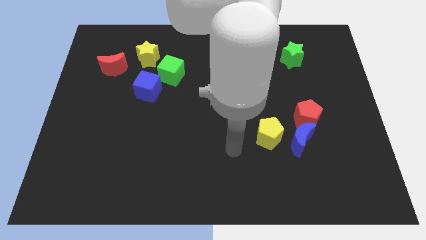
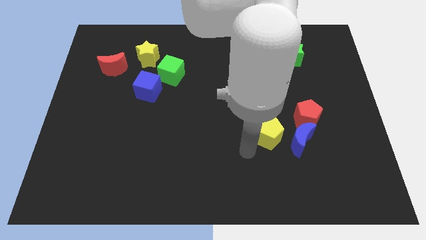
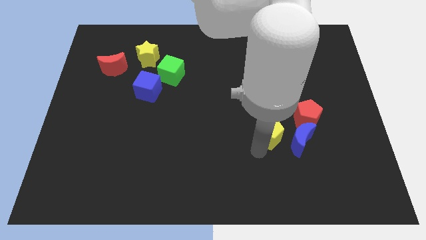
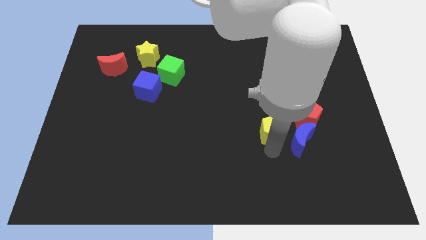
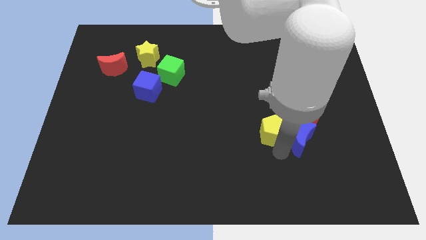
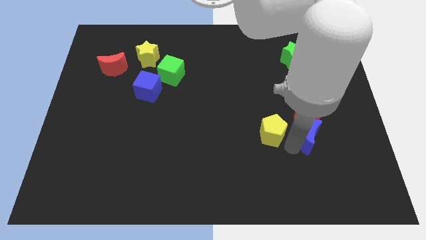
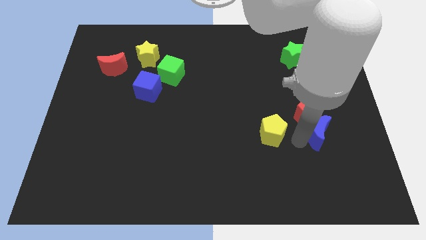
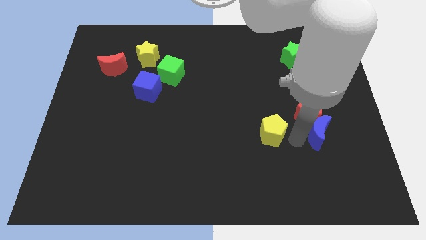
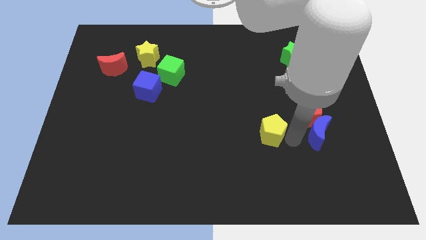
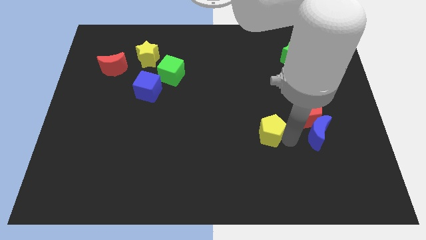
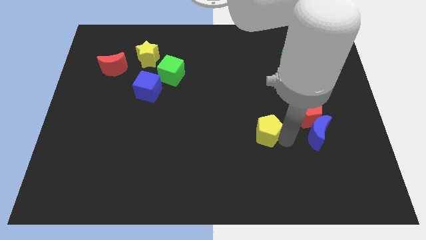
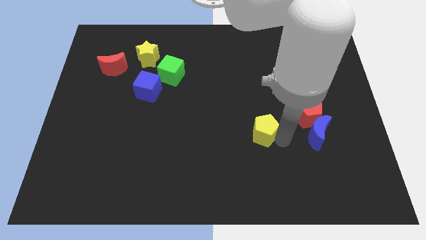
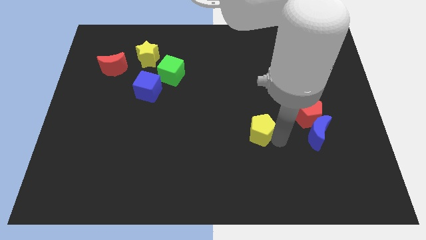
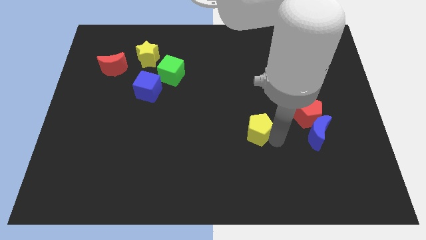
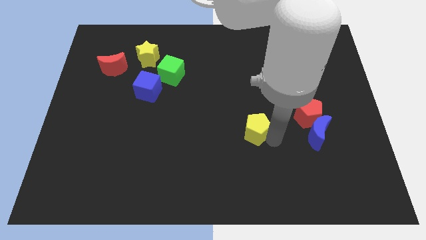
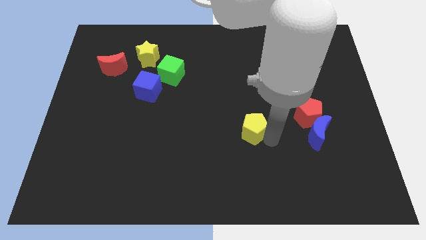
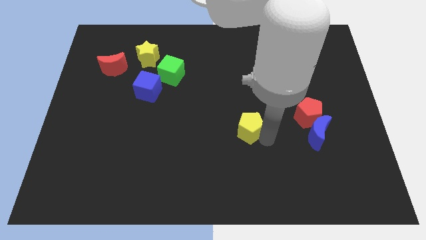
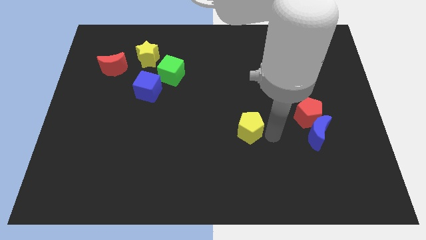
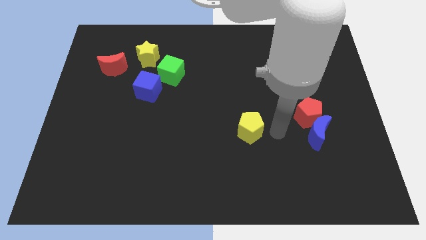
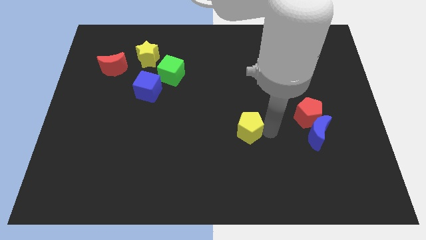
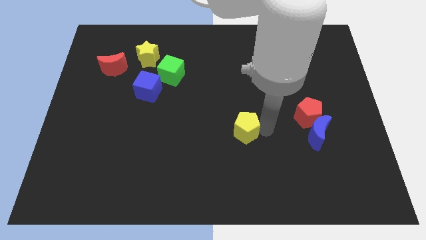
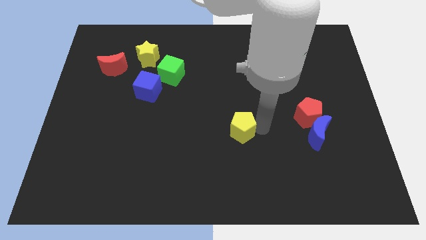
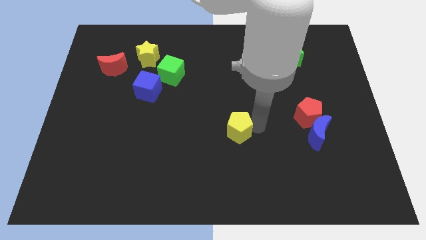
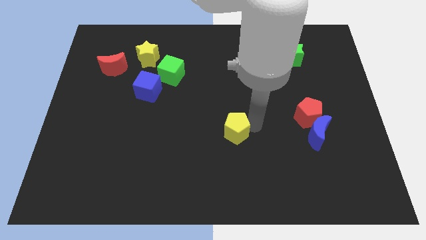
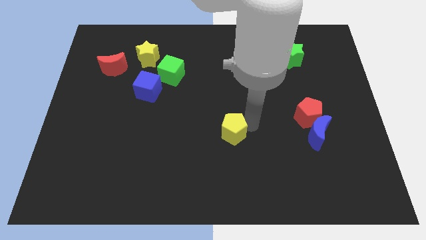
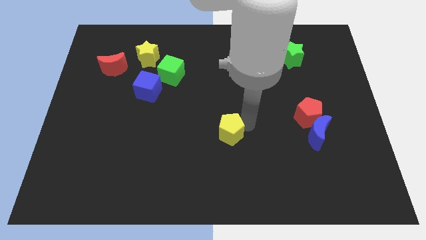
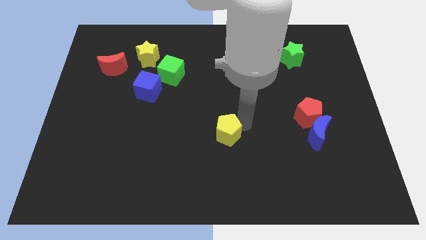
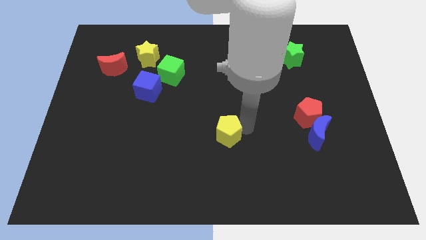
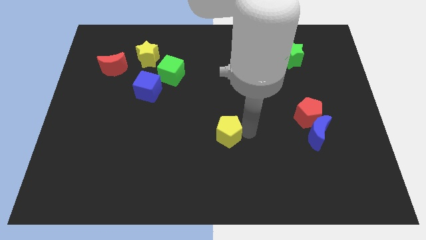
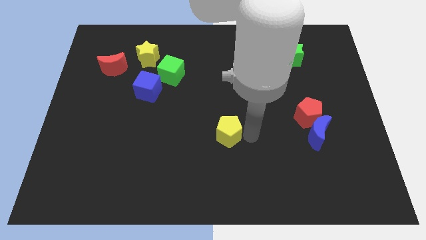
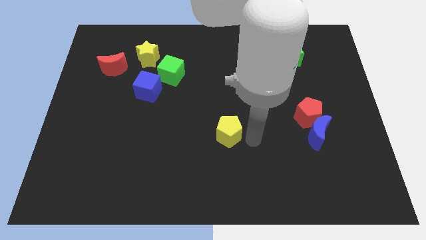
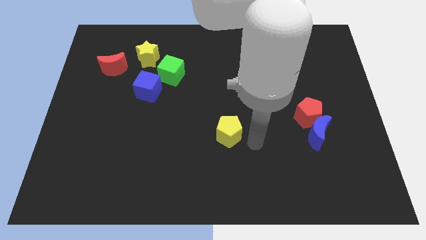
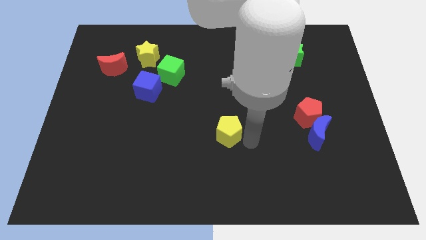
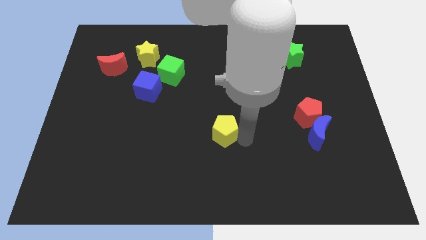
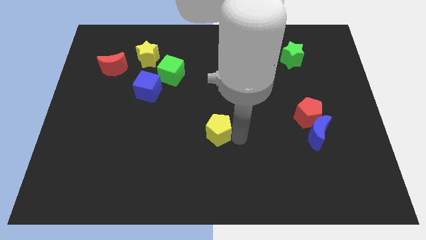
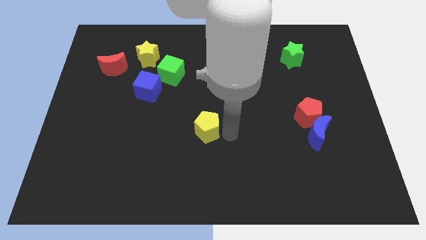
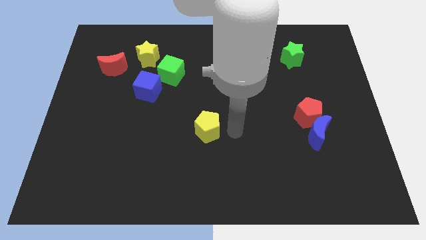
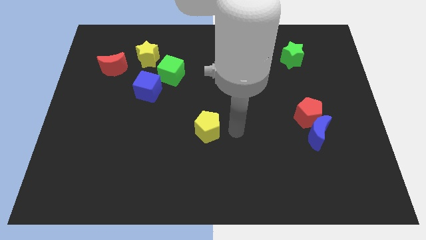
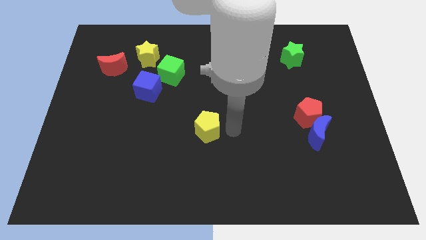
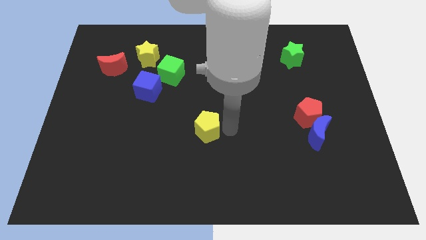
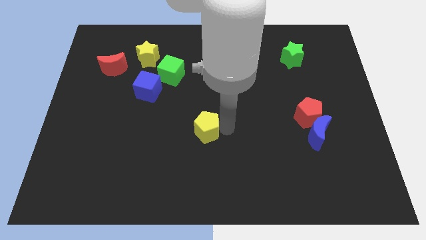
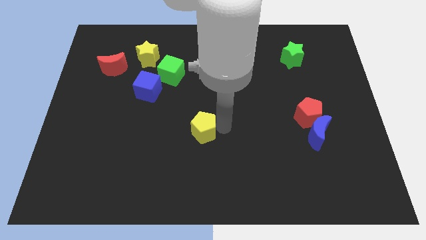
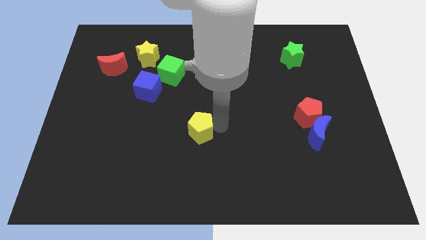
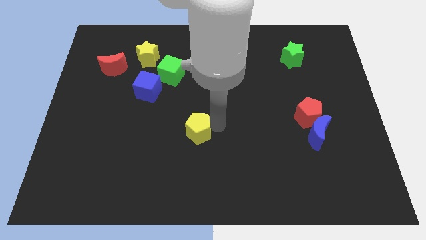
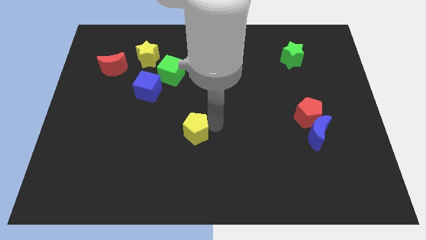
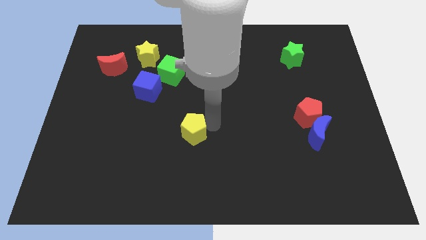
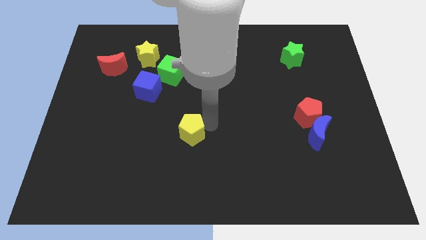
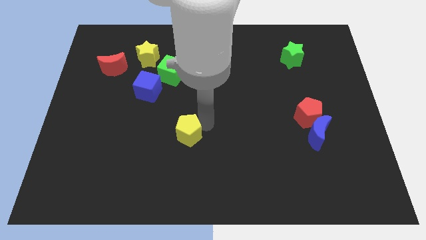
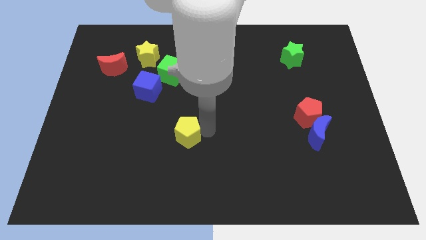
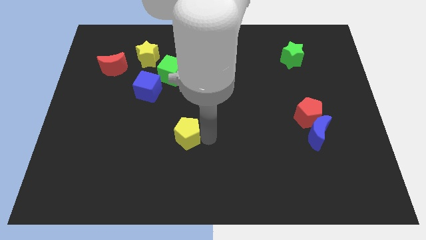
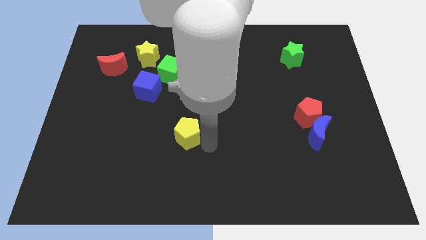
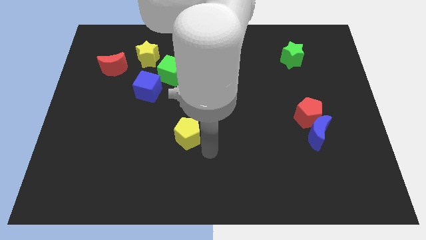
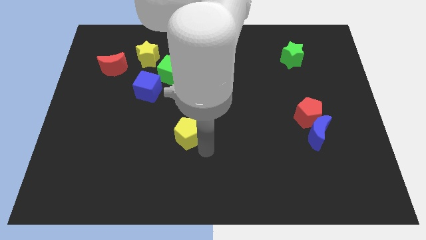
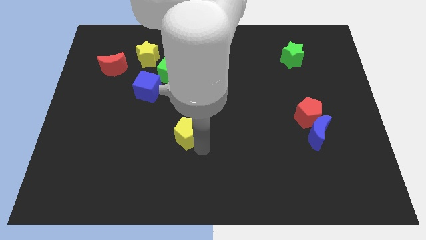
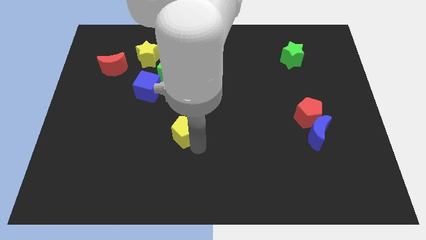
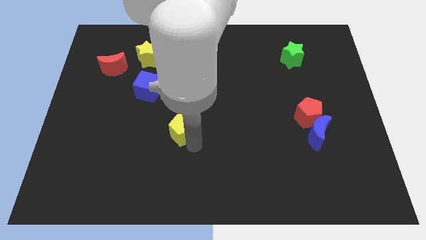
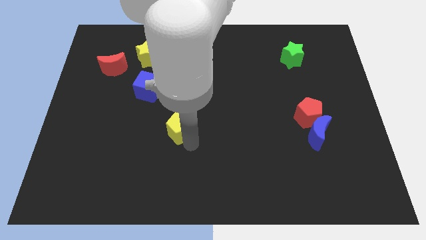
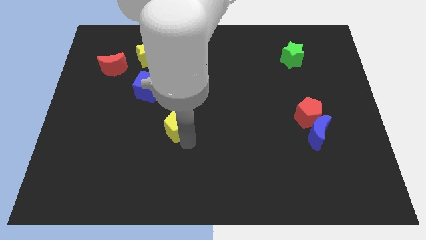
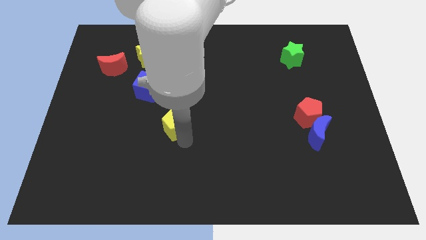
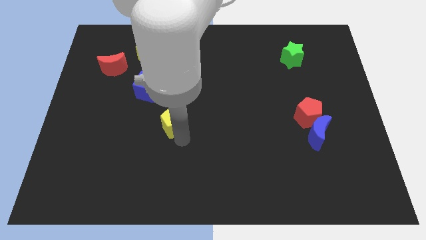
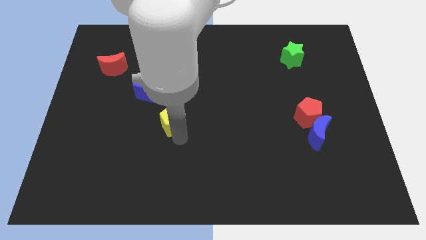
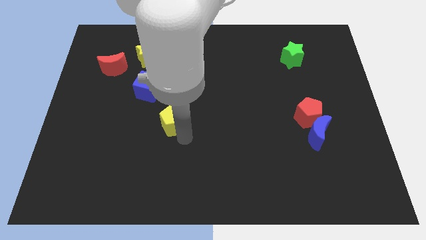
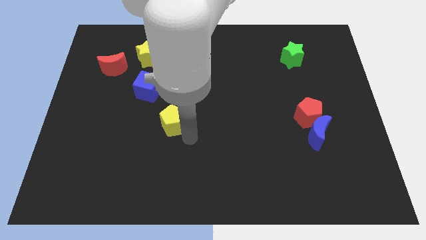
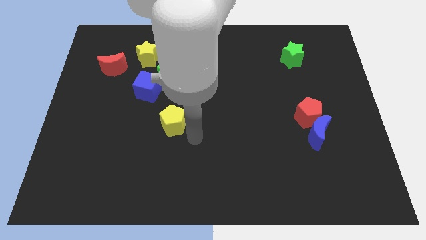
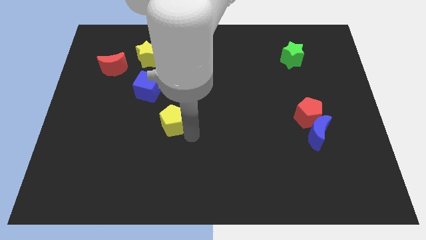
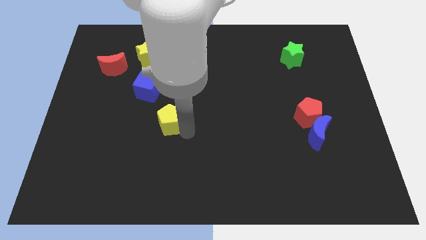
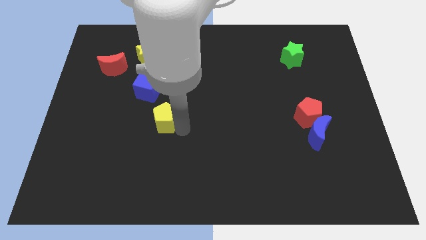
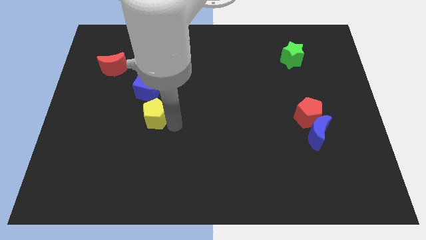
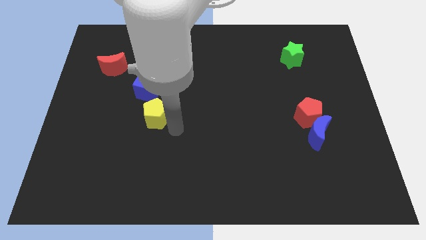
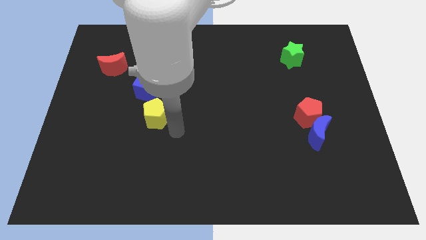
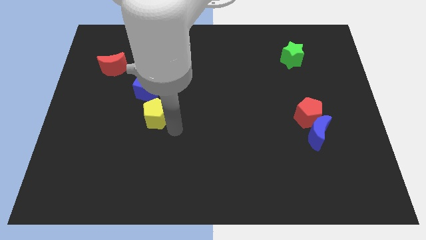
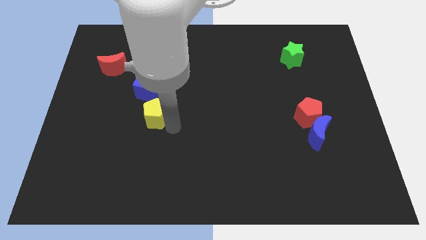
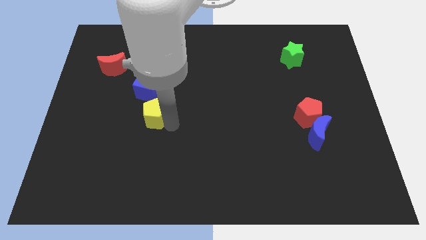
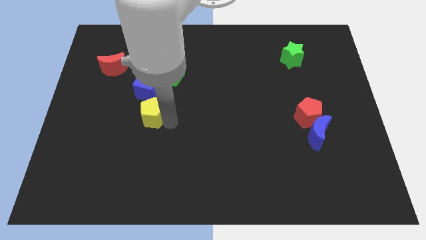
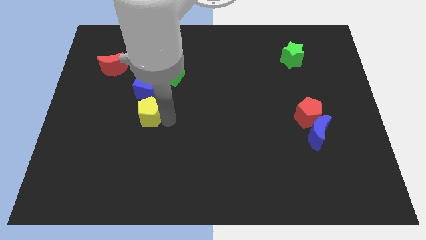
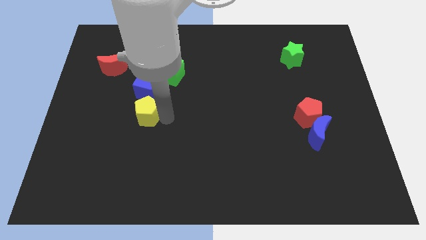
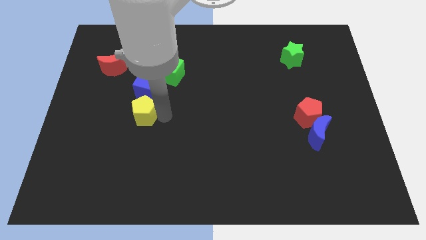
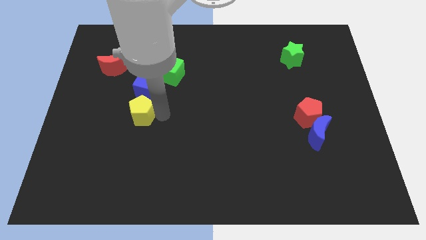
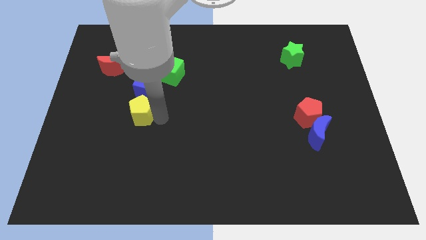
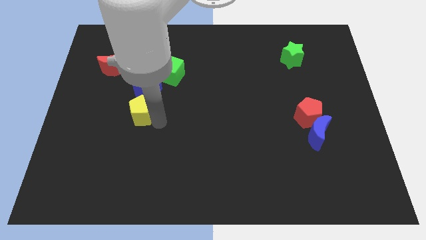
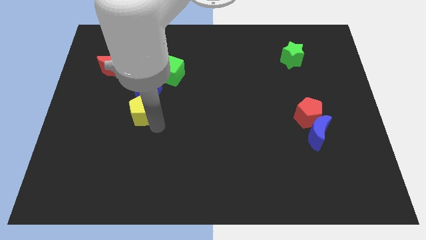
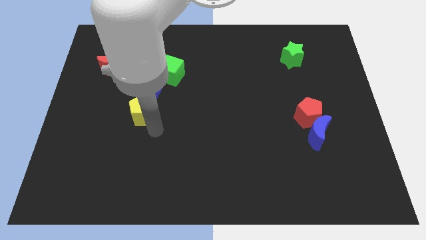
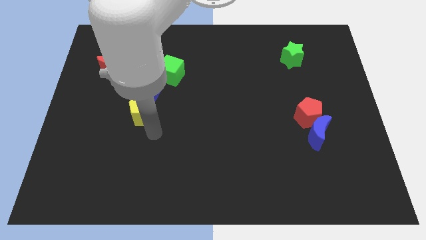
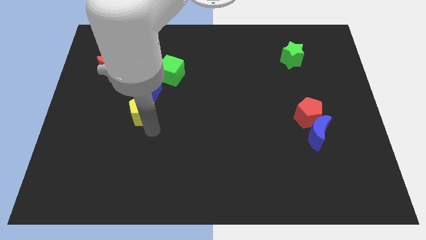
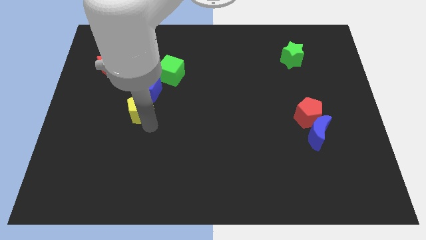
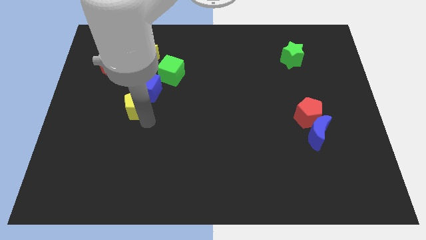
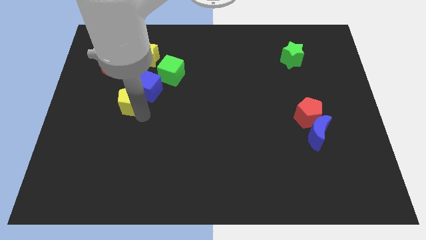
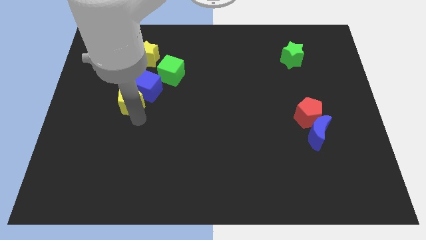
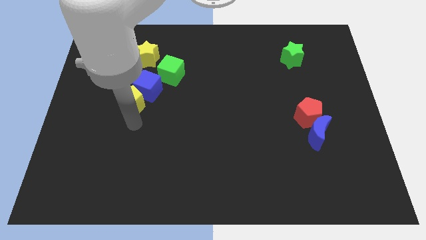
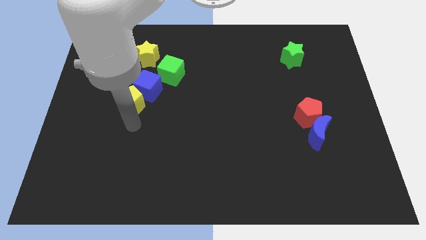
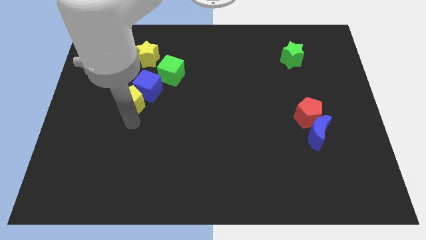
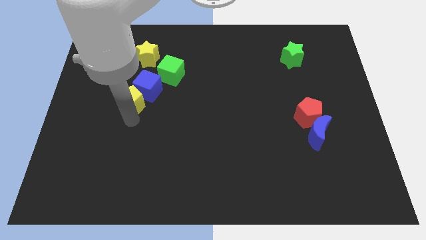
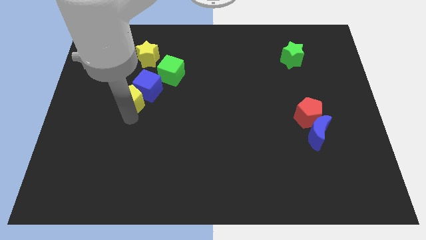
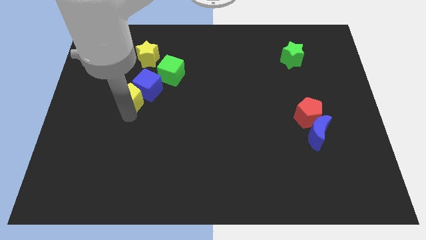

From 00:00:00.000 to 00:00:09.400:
move the yellow pentagon to the bottom right of the red moon
